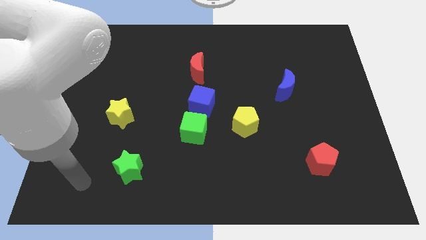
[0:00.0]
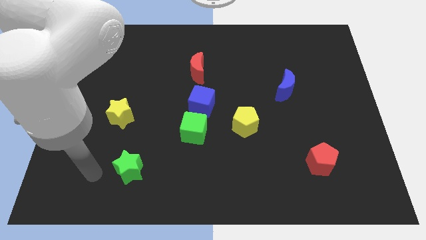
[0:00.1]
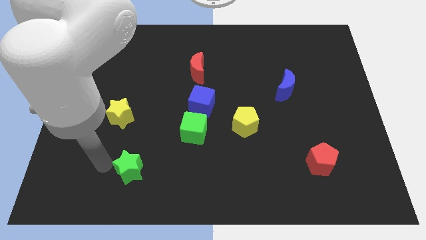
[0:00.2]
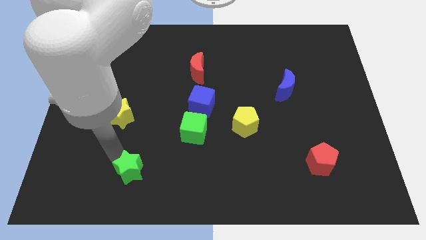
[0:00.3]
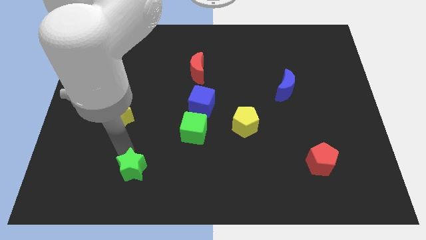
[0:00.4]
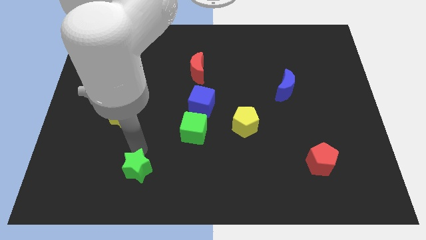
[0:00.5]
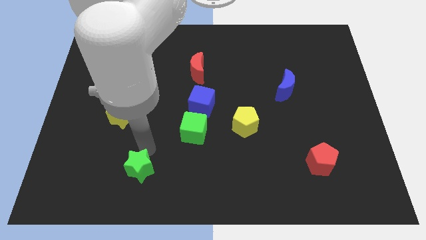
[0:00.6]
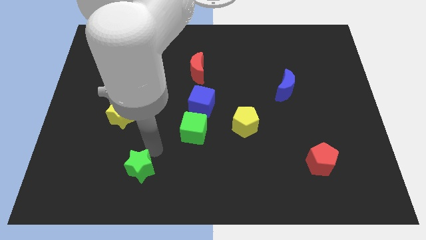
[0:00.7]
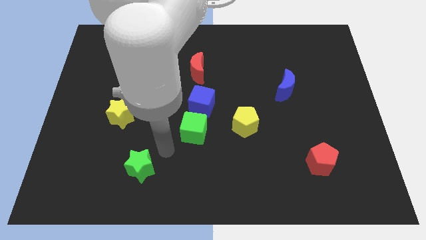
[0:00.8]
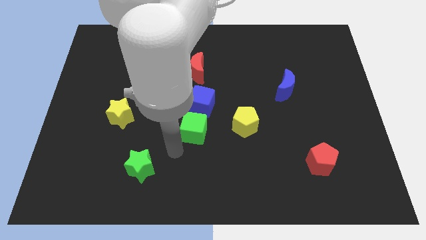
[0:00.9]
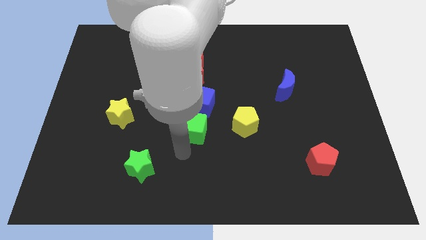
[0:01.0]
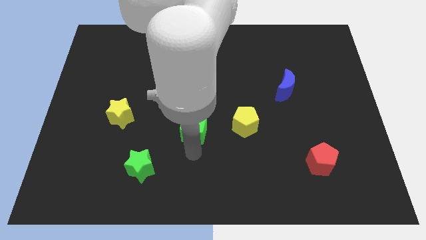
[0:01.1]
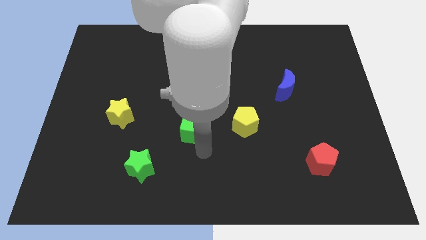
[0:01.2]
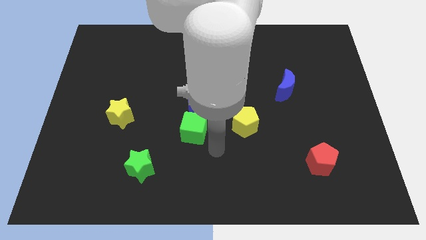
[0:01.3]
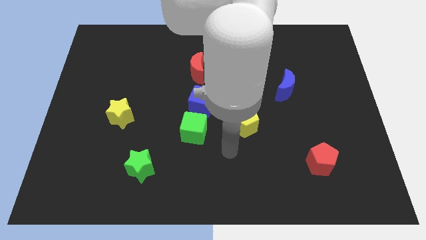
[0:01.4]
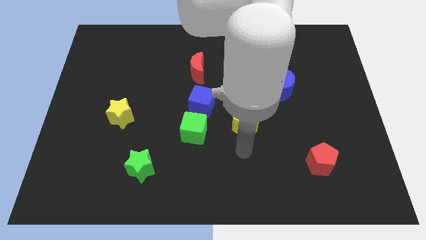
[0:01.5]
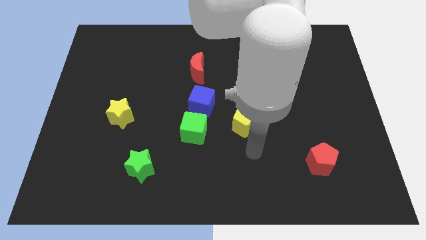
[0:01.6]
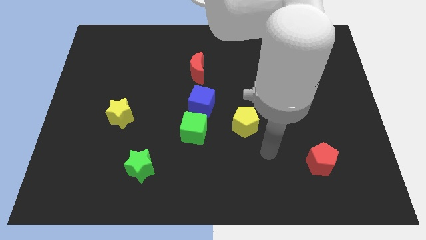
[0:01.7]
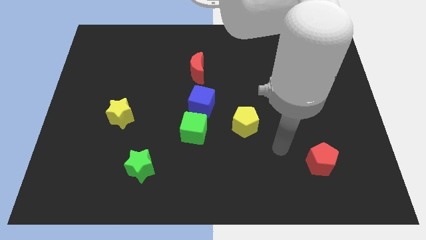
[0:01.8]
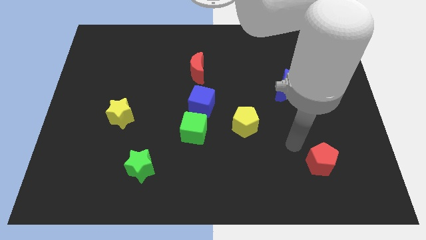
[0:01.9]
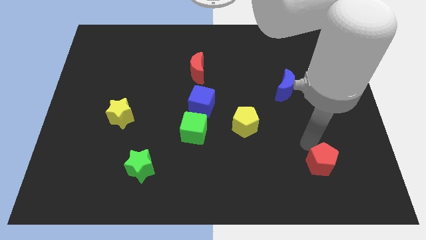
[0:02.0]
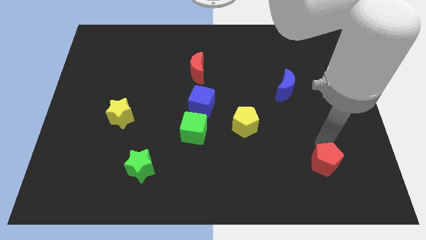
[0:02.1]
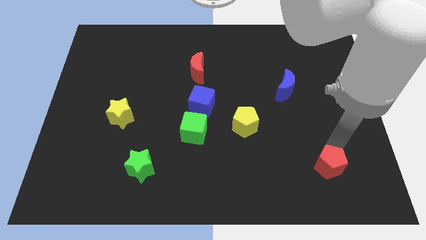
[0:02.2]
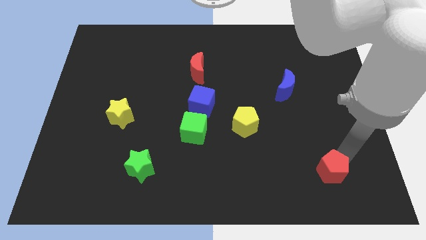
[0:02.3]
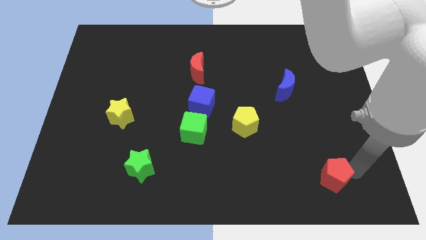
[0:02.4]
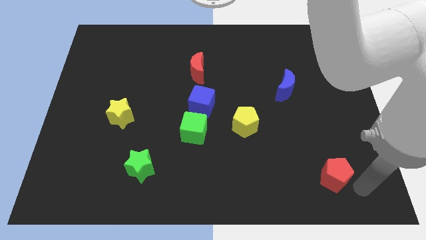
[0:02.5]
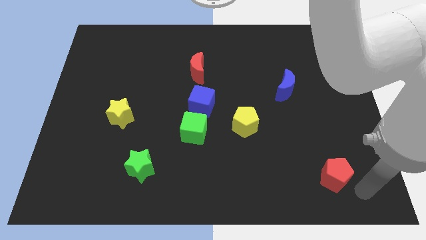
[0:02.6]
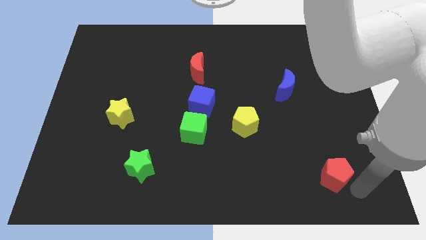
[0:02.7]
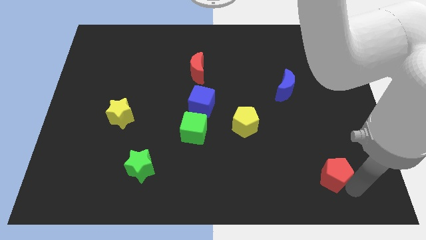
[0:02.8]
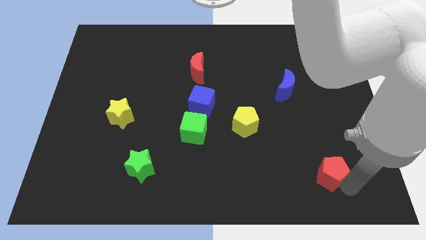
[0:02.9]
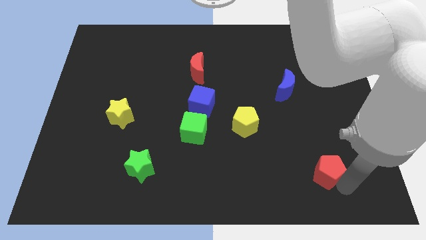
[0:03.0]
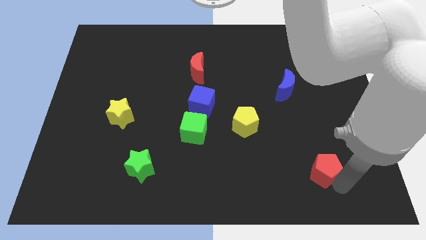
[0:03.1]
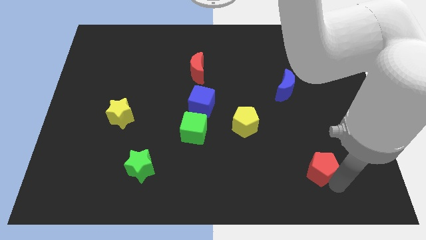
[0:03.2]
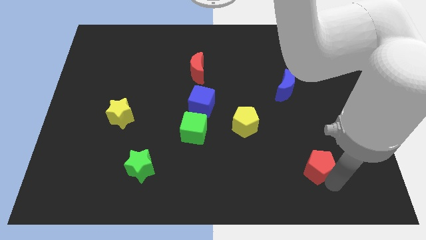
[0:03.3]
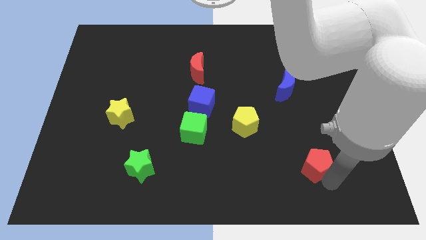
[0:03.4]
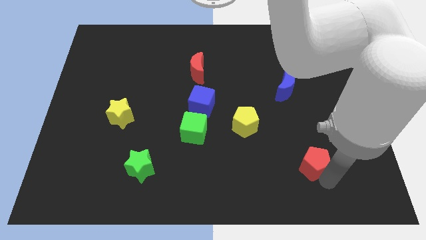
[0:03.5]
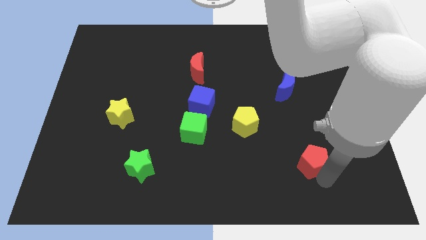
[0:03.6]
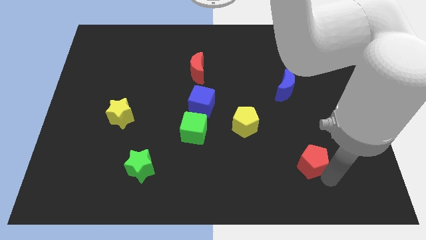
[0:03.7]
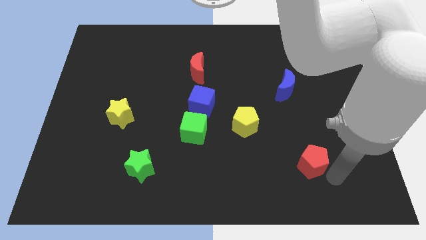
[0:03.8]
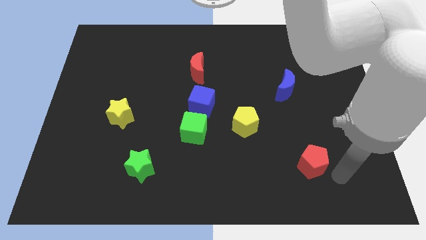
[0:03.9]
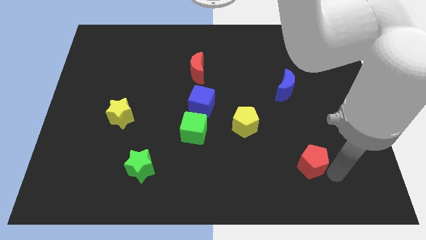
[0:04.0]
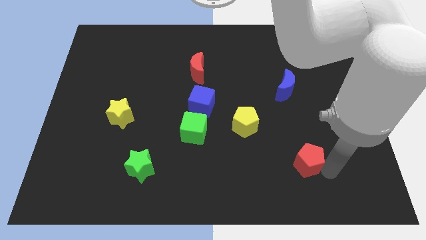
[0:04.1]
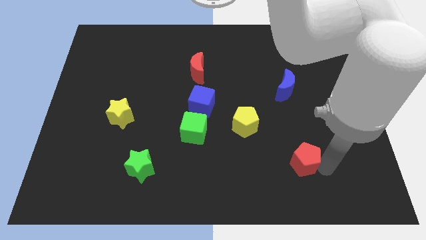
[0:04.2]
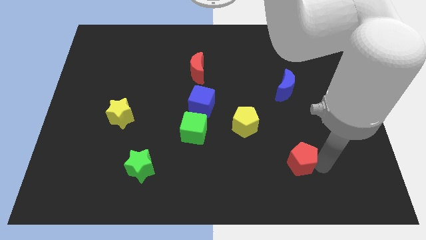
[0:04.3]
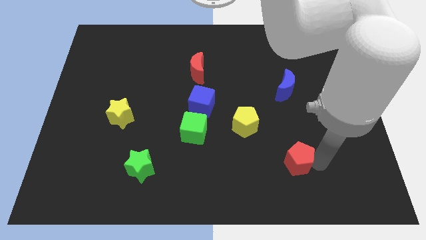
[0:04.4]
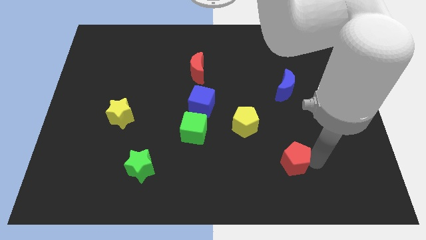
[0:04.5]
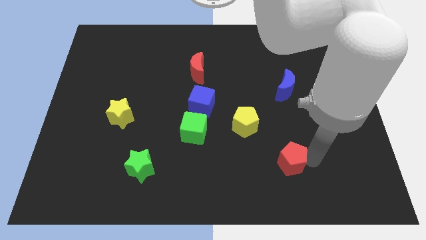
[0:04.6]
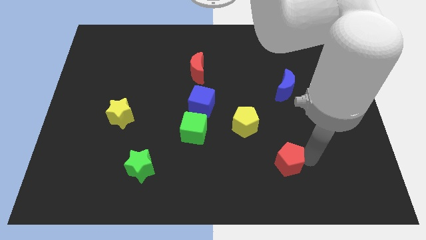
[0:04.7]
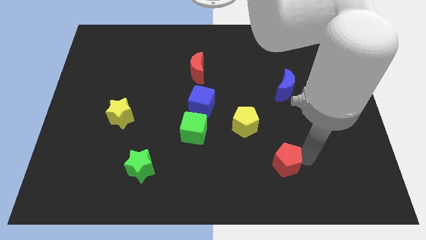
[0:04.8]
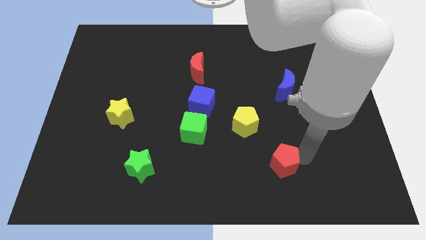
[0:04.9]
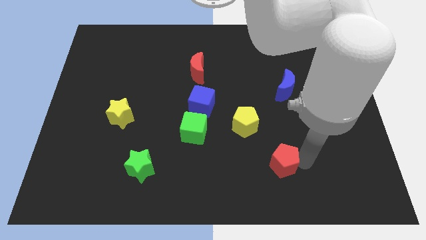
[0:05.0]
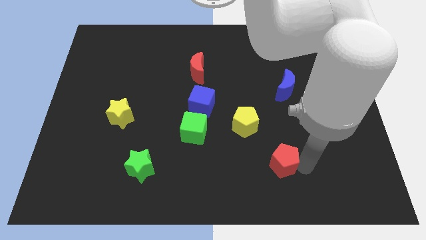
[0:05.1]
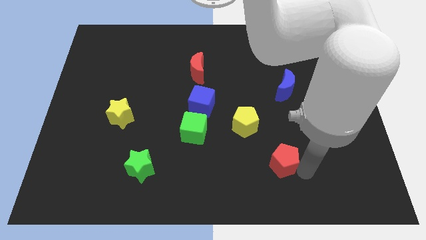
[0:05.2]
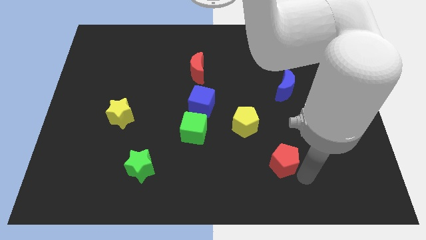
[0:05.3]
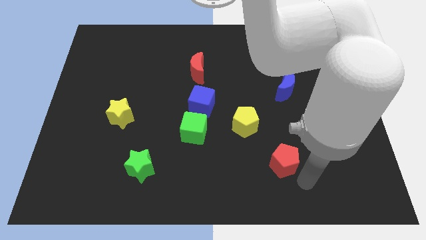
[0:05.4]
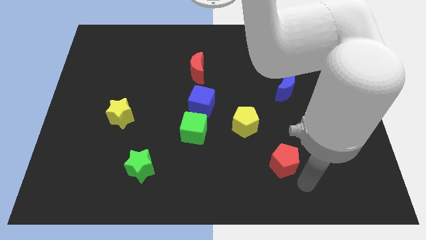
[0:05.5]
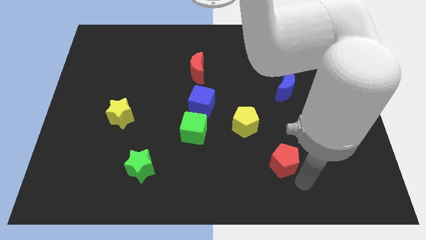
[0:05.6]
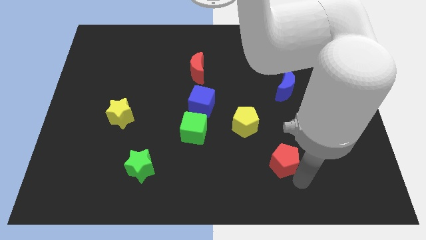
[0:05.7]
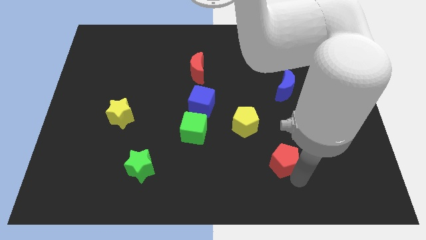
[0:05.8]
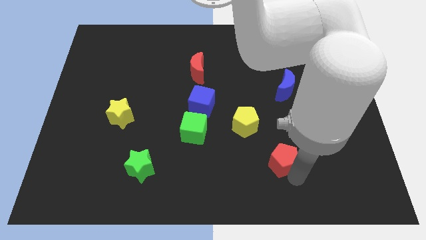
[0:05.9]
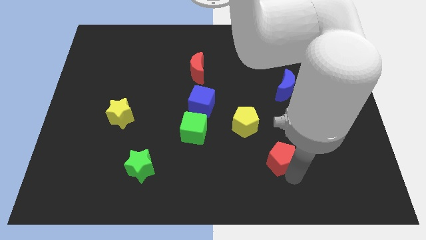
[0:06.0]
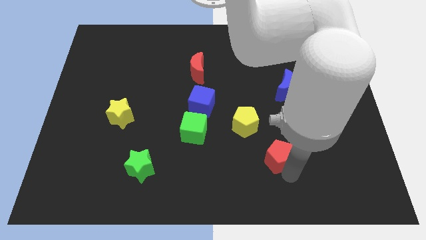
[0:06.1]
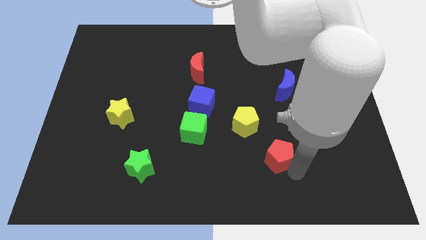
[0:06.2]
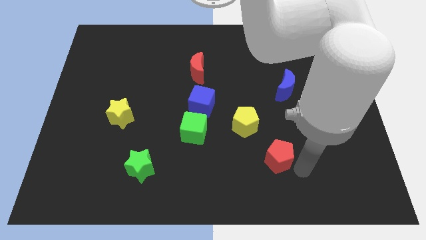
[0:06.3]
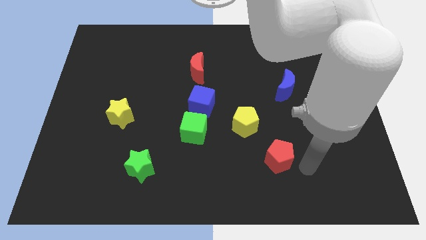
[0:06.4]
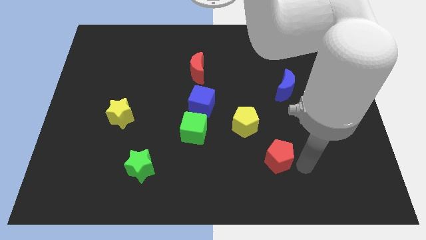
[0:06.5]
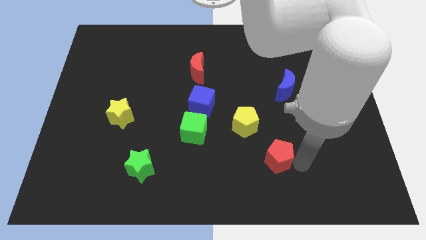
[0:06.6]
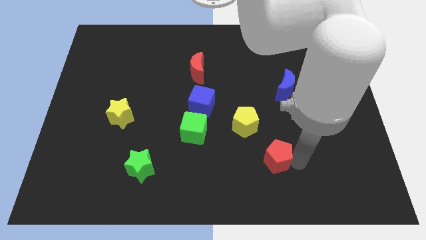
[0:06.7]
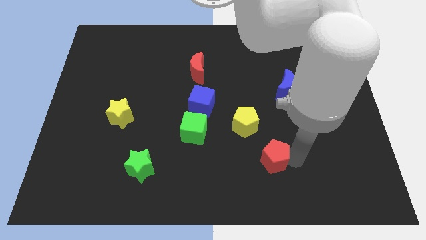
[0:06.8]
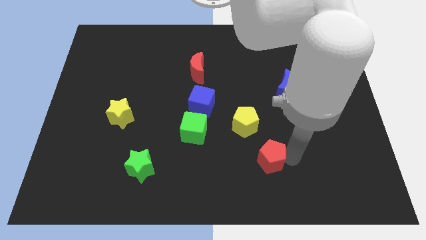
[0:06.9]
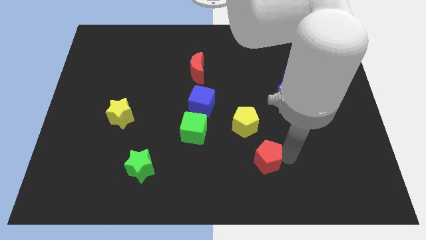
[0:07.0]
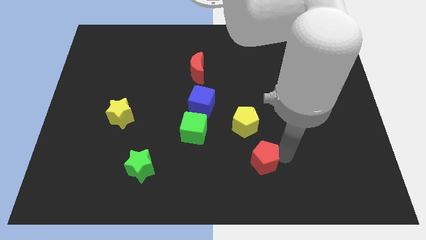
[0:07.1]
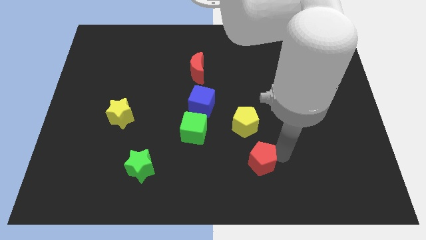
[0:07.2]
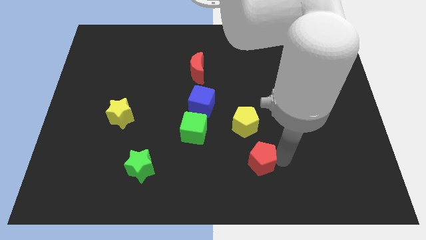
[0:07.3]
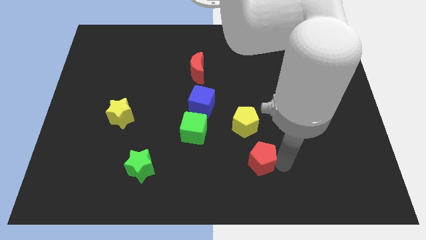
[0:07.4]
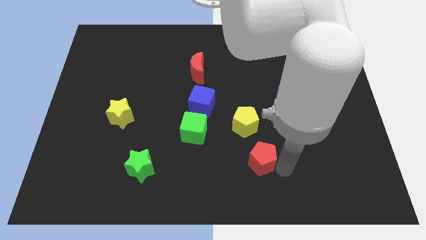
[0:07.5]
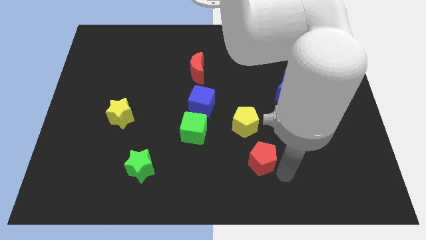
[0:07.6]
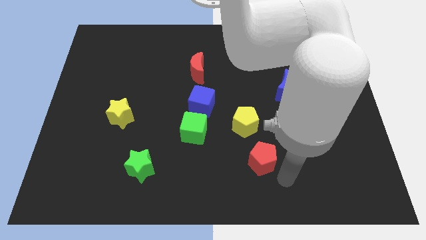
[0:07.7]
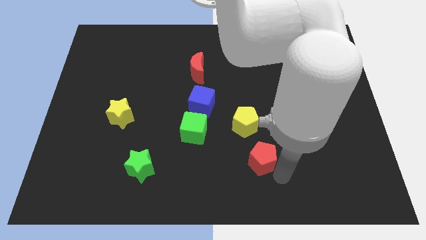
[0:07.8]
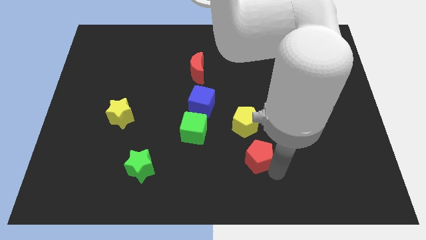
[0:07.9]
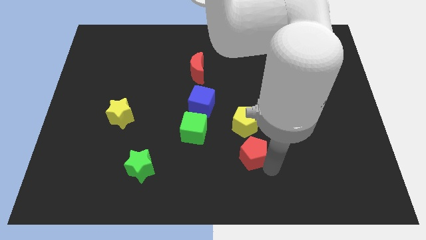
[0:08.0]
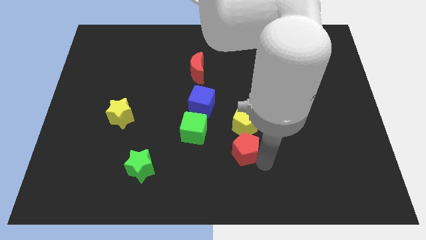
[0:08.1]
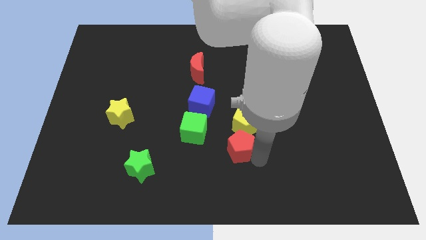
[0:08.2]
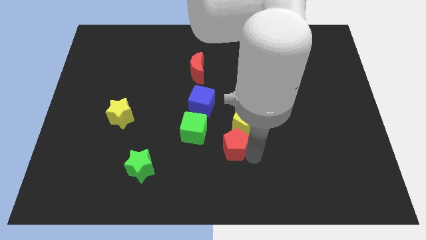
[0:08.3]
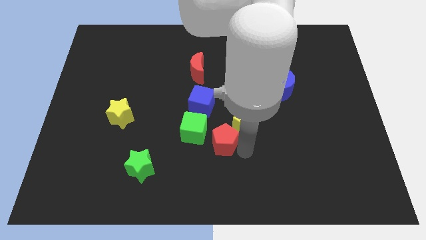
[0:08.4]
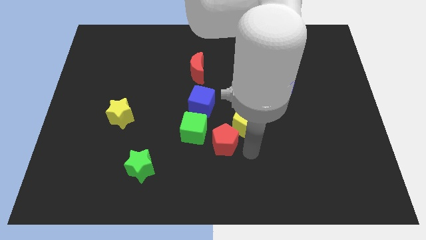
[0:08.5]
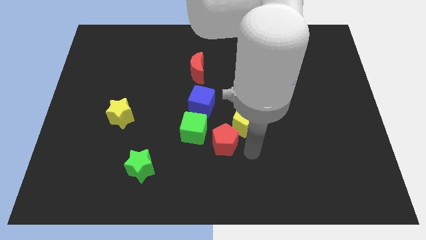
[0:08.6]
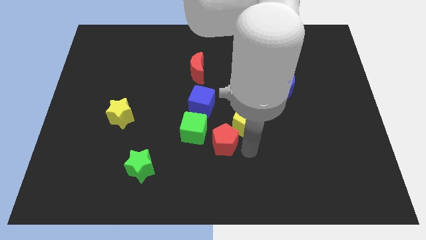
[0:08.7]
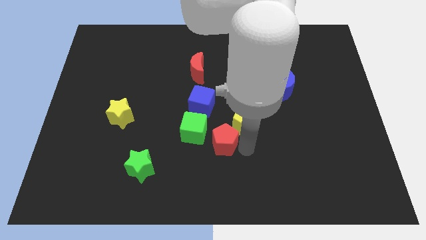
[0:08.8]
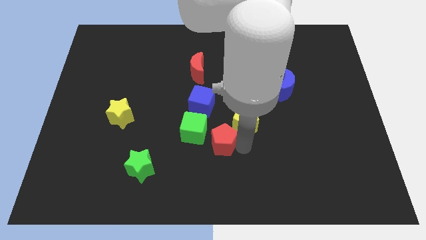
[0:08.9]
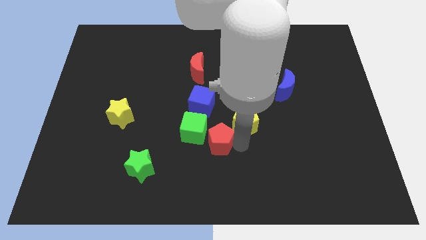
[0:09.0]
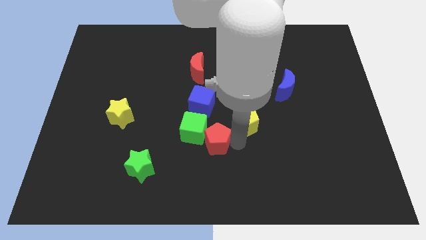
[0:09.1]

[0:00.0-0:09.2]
slide the red pentagon towards the green cube
